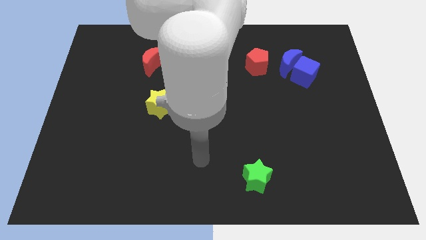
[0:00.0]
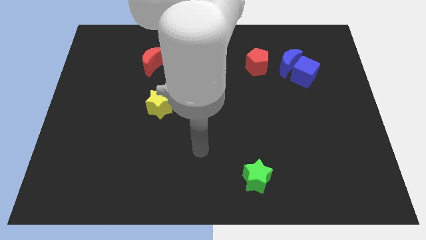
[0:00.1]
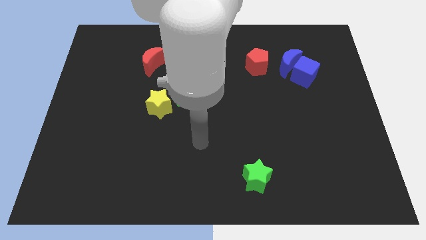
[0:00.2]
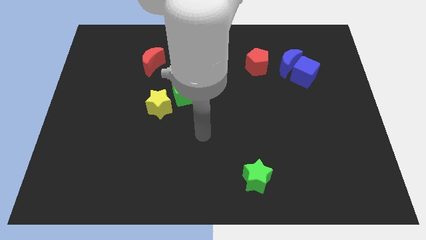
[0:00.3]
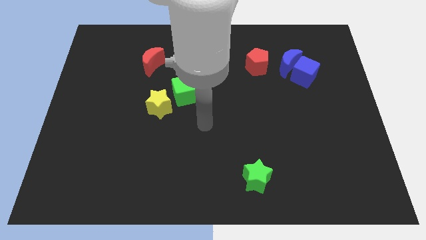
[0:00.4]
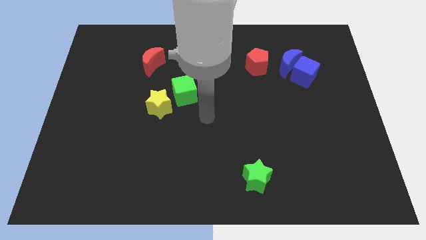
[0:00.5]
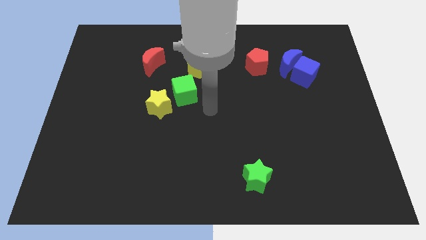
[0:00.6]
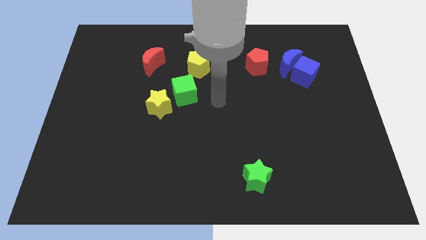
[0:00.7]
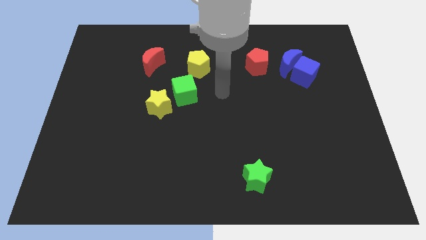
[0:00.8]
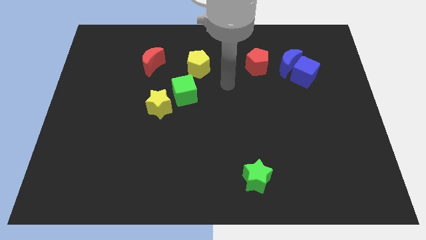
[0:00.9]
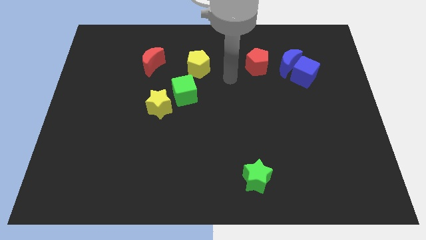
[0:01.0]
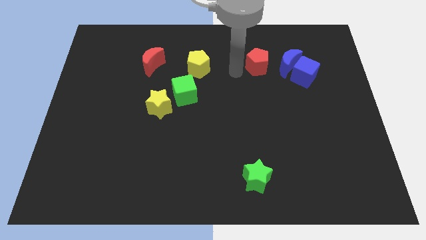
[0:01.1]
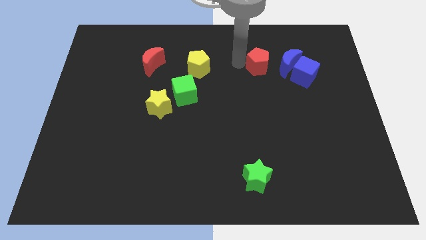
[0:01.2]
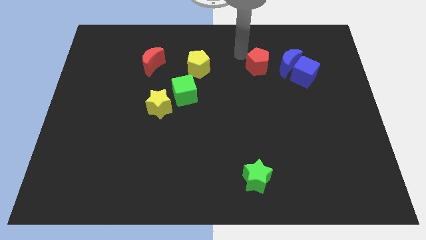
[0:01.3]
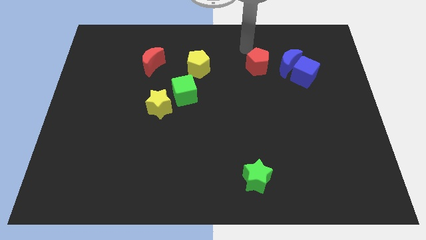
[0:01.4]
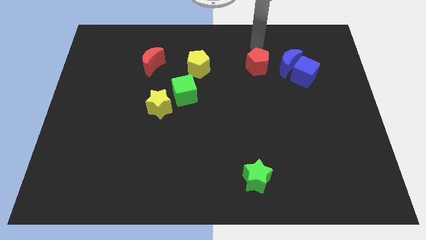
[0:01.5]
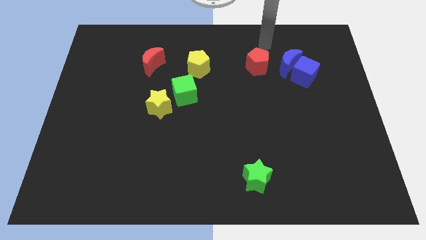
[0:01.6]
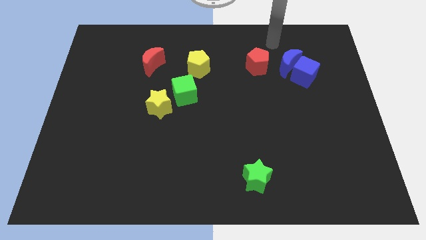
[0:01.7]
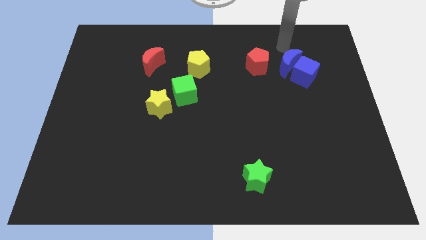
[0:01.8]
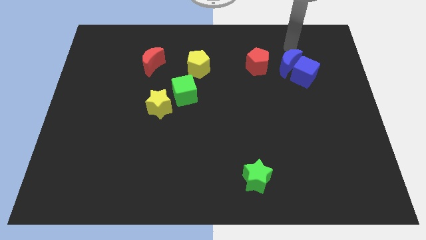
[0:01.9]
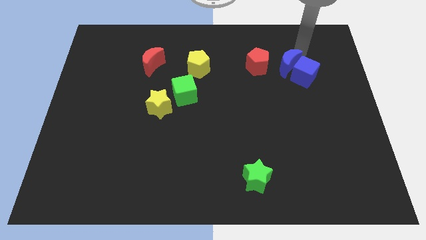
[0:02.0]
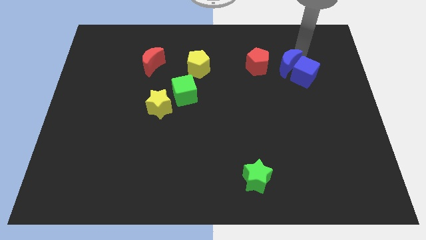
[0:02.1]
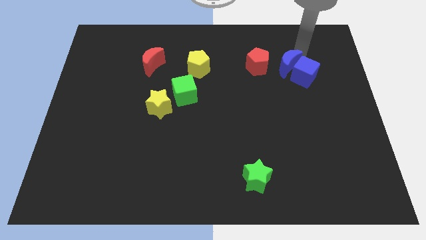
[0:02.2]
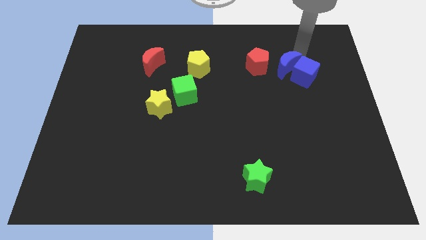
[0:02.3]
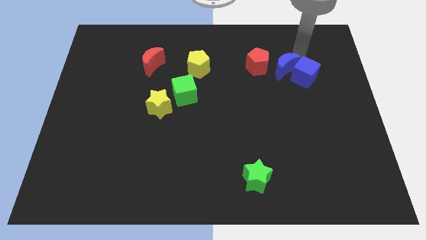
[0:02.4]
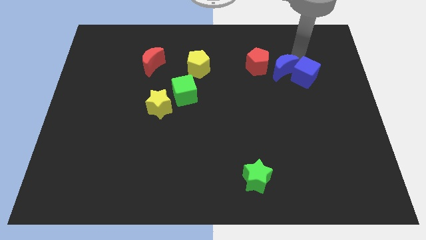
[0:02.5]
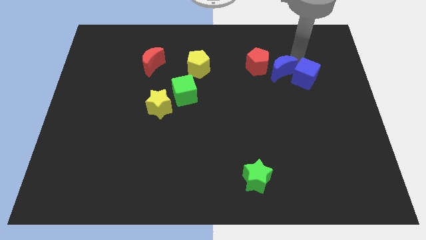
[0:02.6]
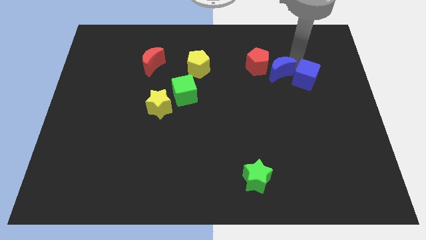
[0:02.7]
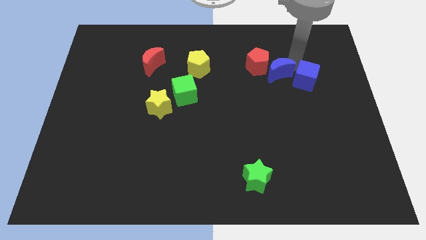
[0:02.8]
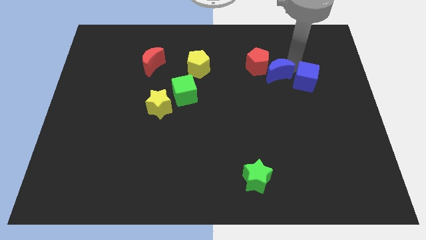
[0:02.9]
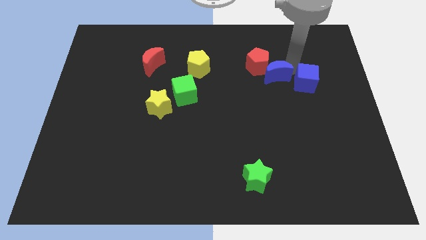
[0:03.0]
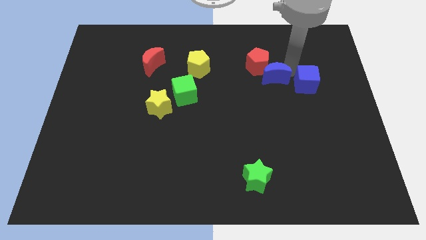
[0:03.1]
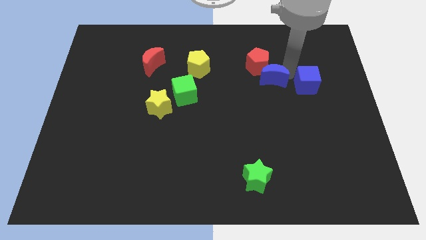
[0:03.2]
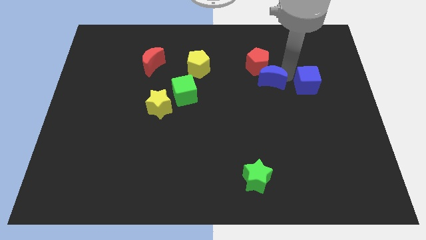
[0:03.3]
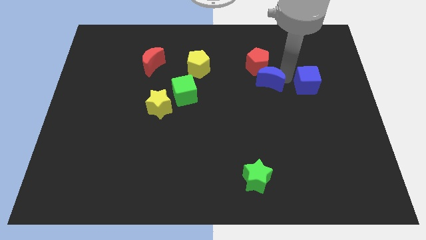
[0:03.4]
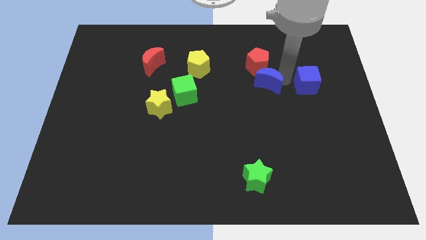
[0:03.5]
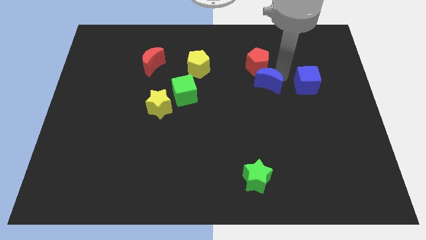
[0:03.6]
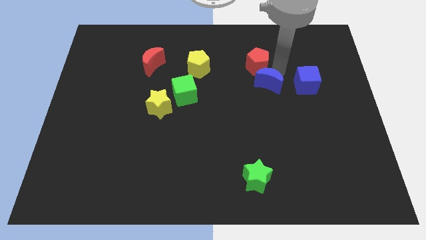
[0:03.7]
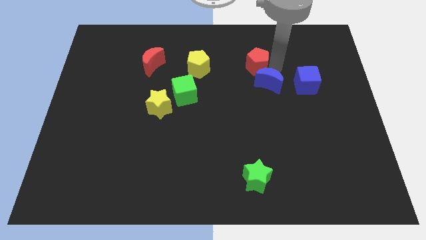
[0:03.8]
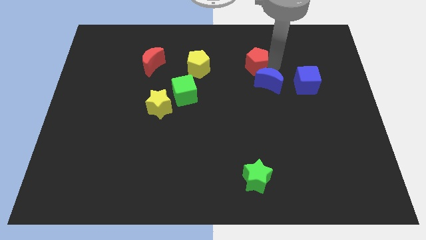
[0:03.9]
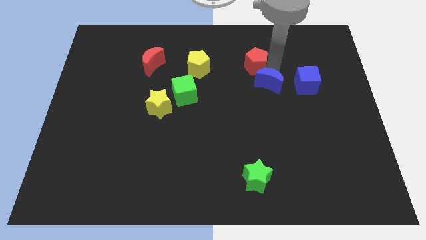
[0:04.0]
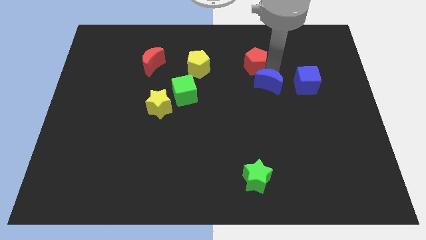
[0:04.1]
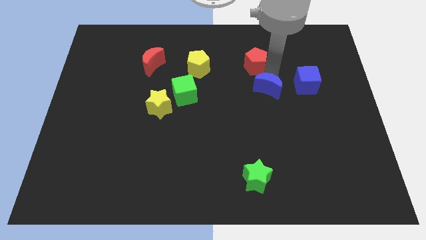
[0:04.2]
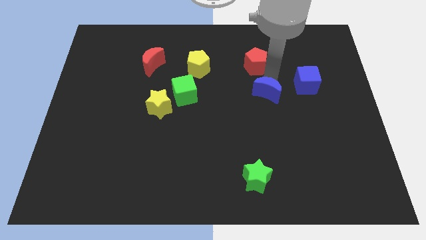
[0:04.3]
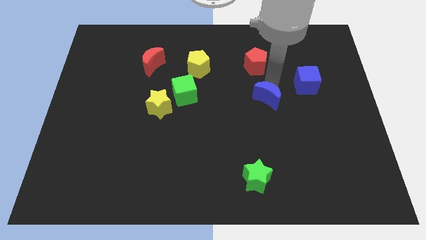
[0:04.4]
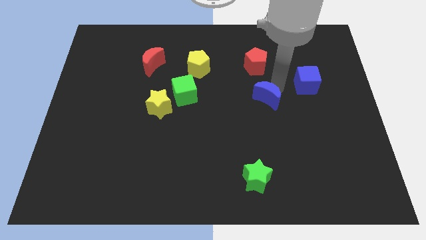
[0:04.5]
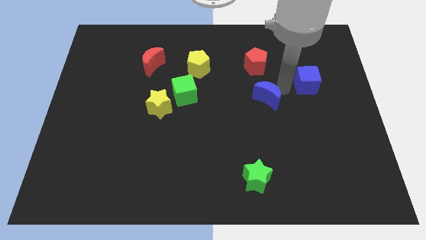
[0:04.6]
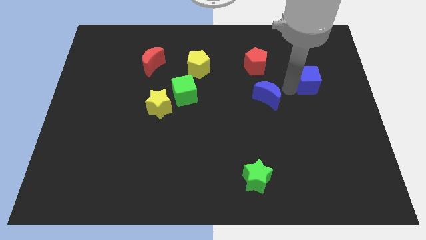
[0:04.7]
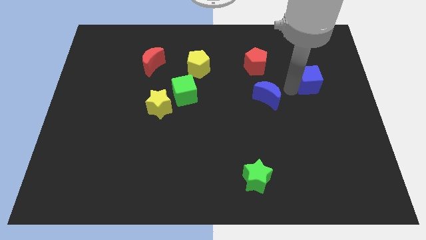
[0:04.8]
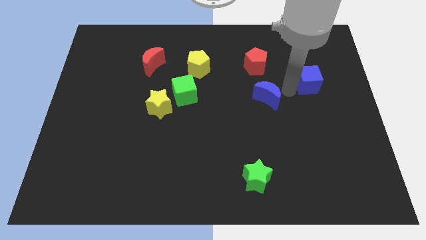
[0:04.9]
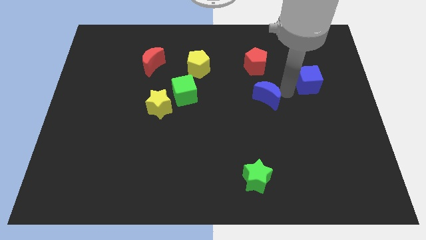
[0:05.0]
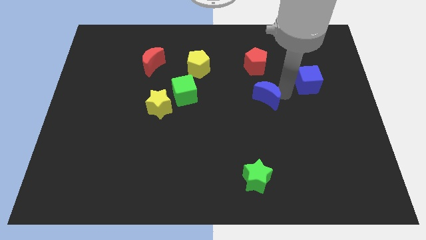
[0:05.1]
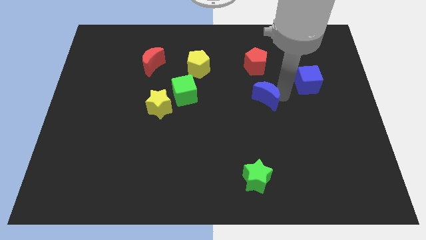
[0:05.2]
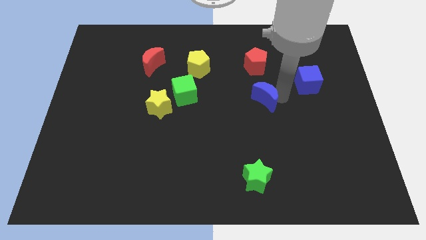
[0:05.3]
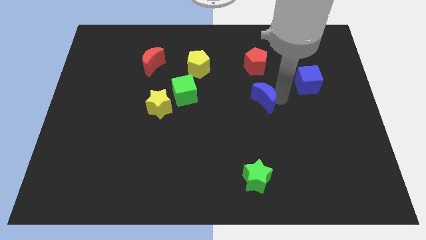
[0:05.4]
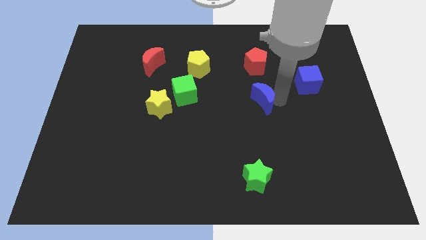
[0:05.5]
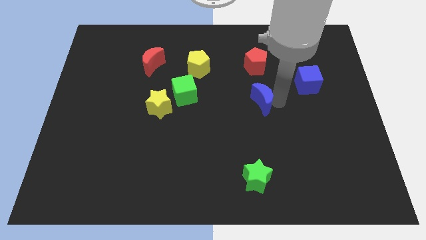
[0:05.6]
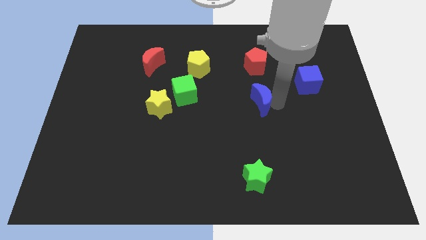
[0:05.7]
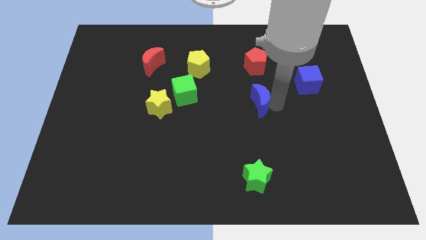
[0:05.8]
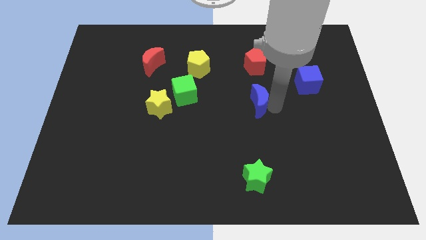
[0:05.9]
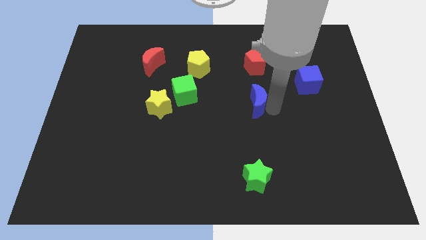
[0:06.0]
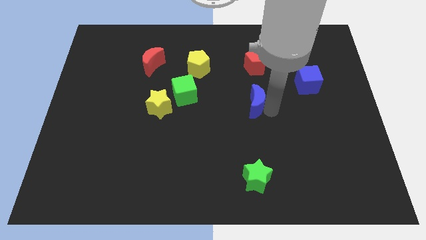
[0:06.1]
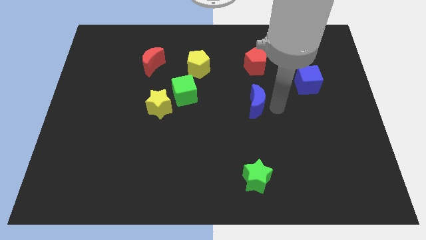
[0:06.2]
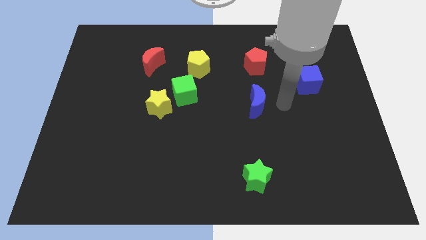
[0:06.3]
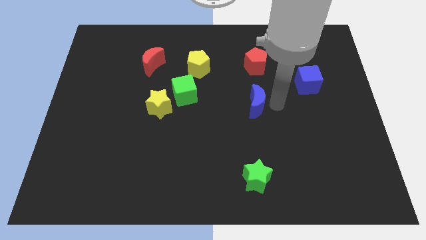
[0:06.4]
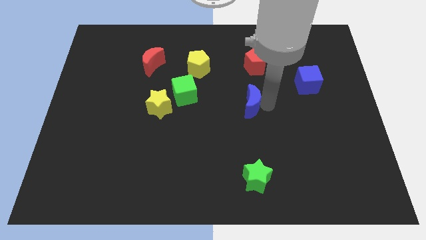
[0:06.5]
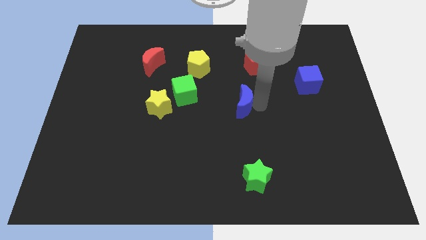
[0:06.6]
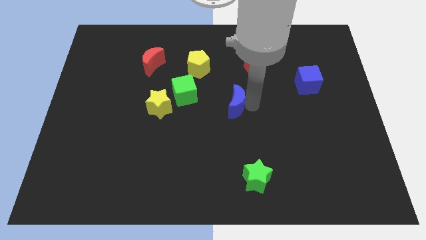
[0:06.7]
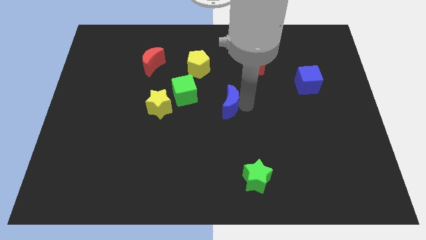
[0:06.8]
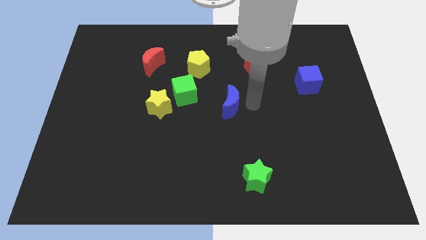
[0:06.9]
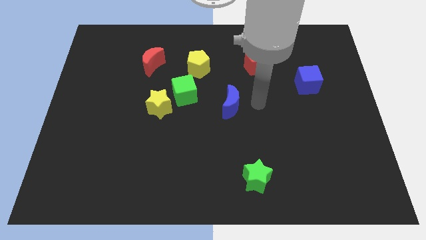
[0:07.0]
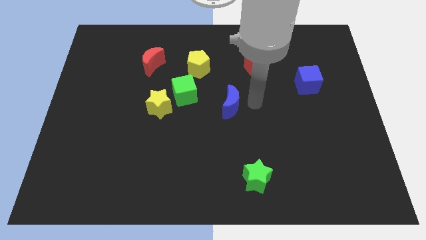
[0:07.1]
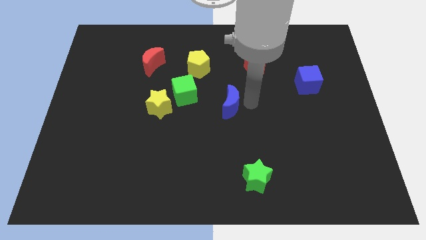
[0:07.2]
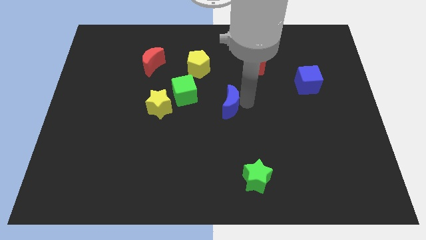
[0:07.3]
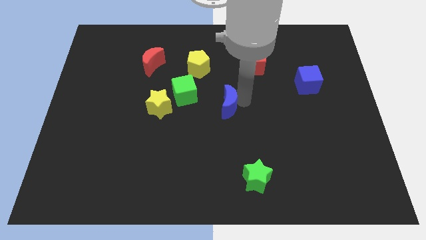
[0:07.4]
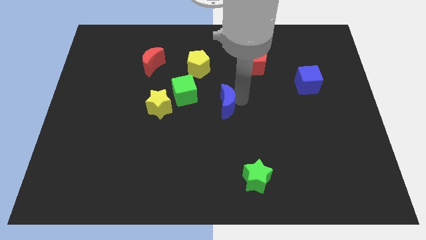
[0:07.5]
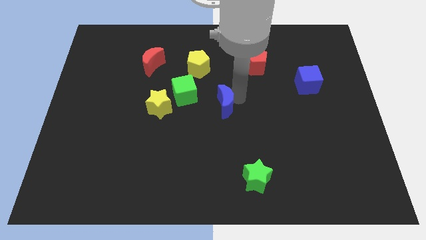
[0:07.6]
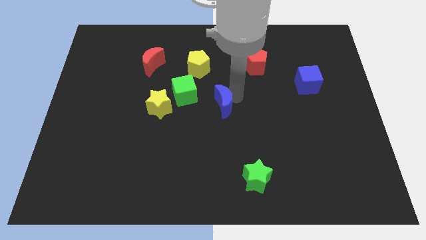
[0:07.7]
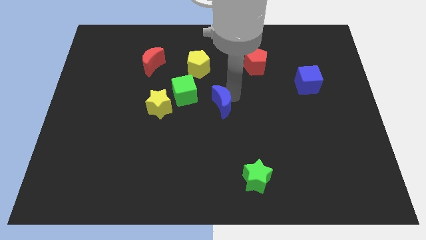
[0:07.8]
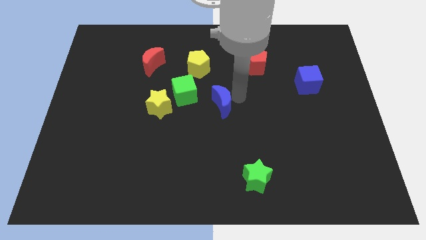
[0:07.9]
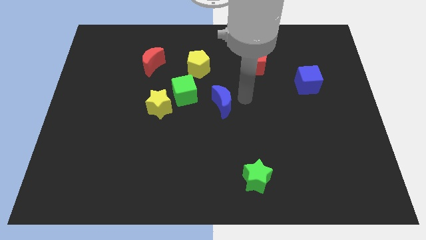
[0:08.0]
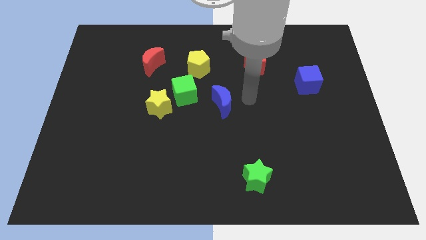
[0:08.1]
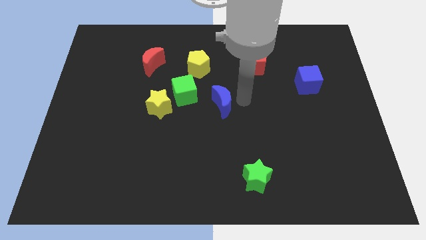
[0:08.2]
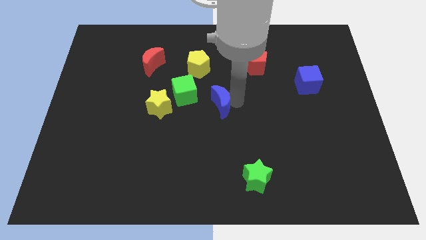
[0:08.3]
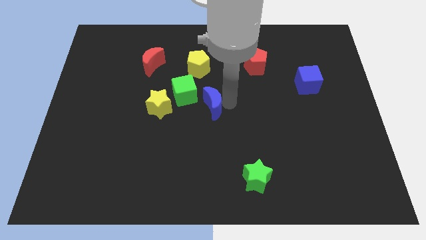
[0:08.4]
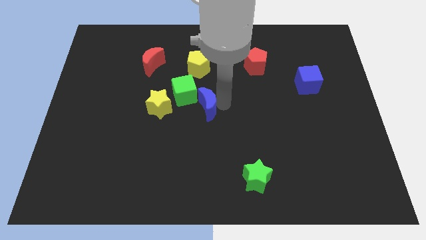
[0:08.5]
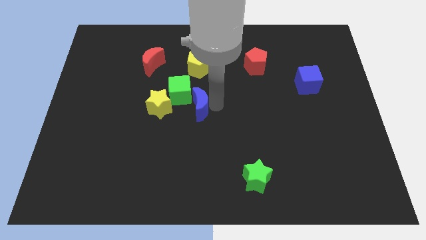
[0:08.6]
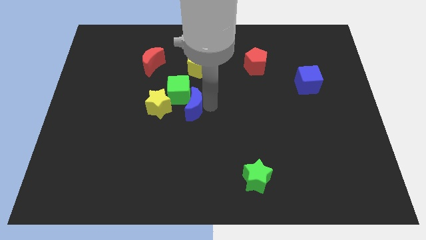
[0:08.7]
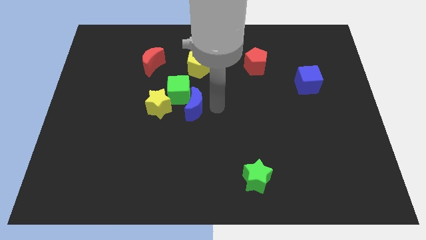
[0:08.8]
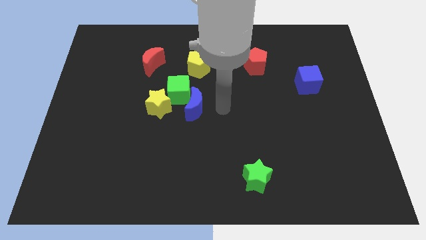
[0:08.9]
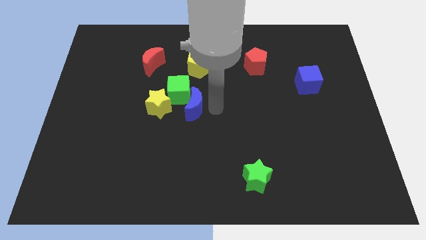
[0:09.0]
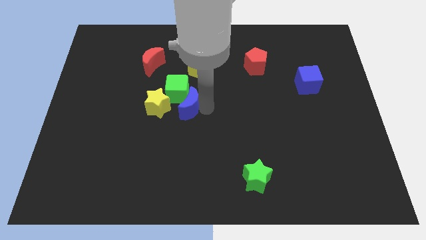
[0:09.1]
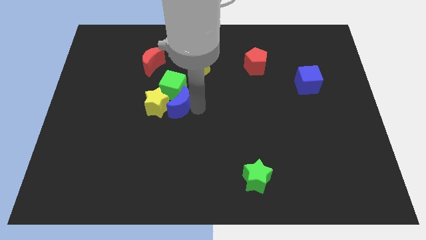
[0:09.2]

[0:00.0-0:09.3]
move the blue moon next to the yellow star
